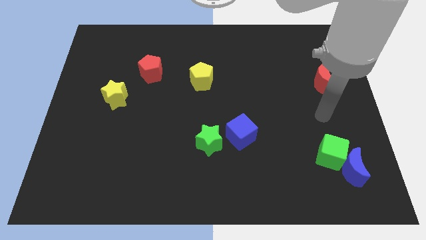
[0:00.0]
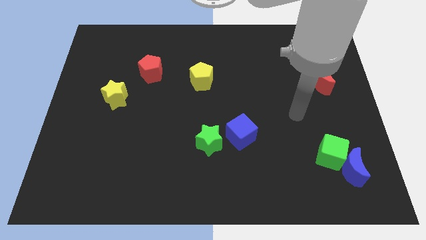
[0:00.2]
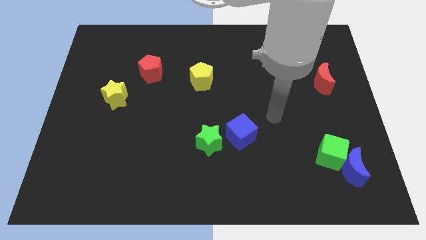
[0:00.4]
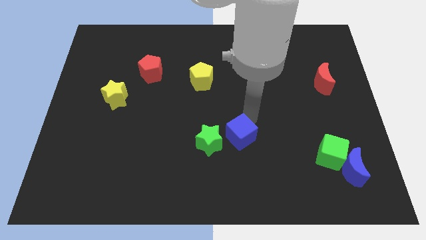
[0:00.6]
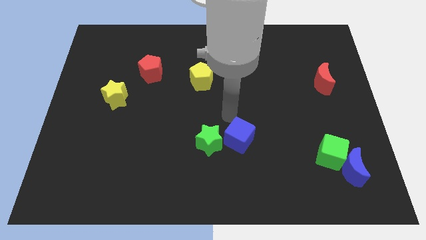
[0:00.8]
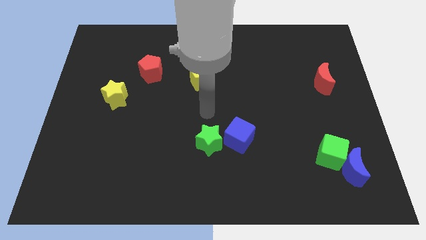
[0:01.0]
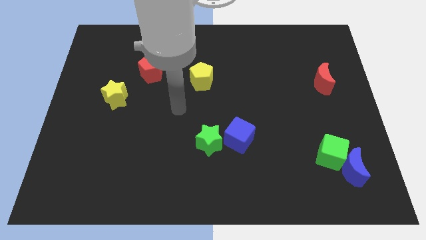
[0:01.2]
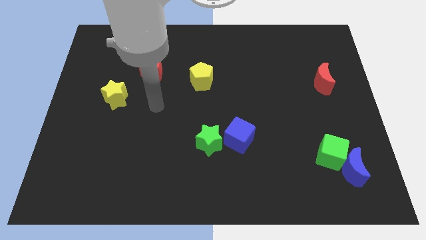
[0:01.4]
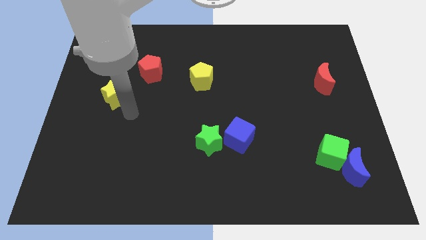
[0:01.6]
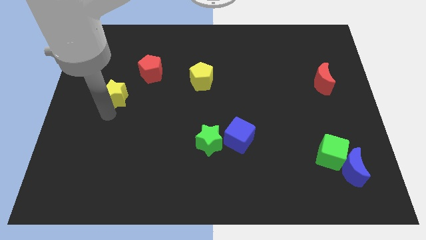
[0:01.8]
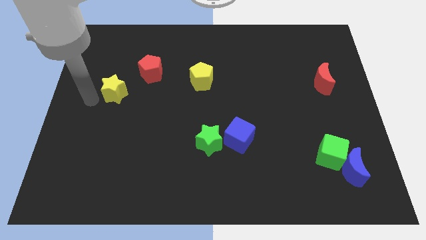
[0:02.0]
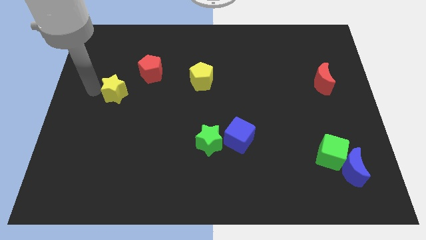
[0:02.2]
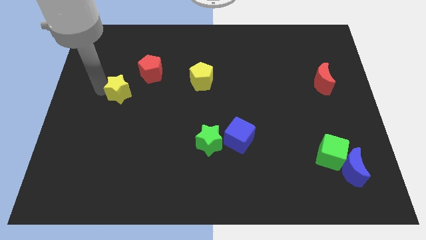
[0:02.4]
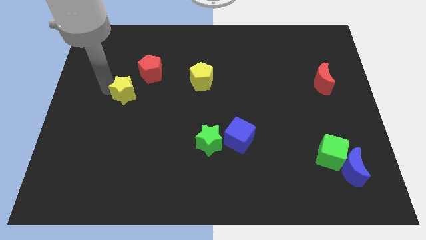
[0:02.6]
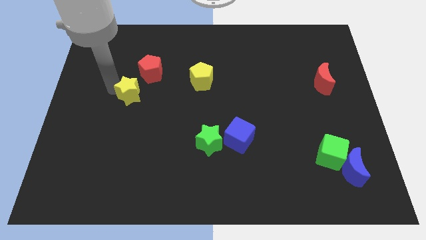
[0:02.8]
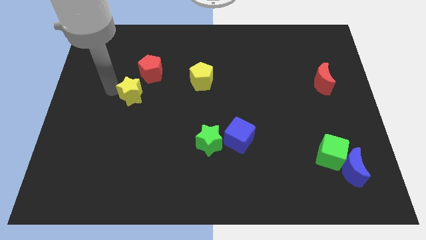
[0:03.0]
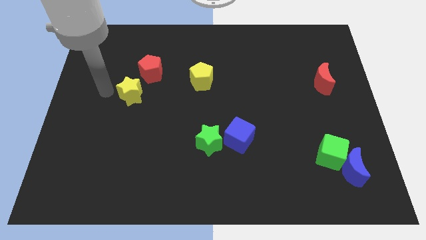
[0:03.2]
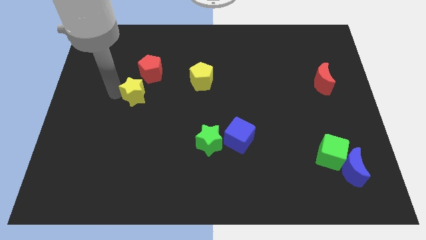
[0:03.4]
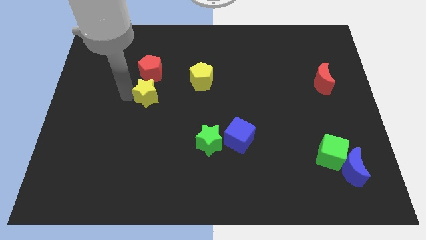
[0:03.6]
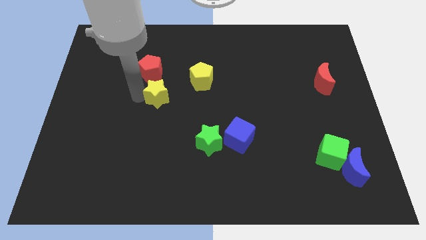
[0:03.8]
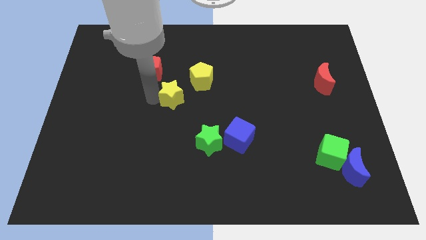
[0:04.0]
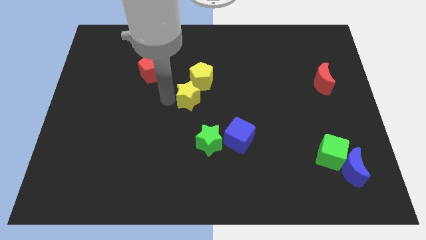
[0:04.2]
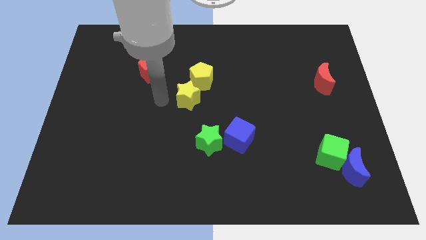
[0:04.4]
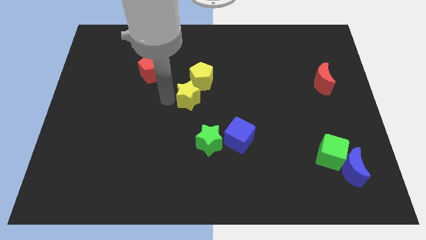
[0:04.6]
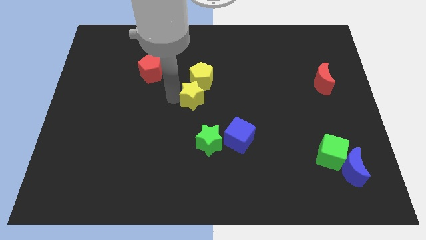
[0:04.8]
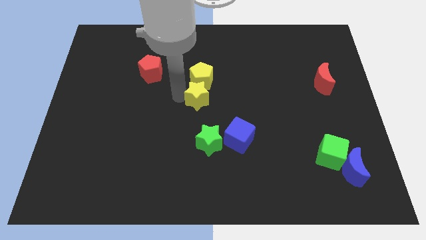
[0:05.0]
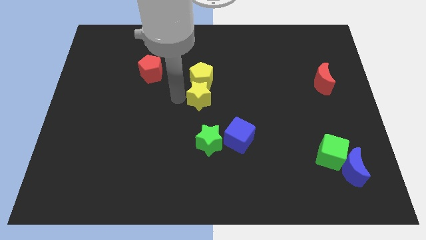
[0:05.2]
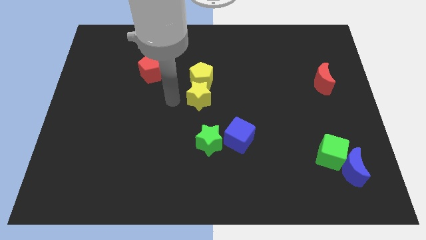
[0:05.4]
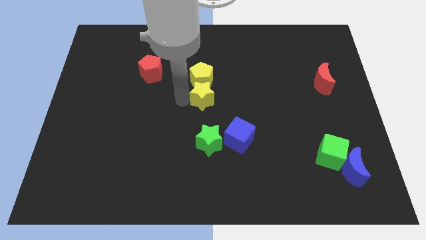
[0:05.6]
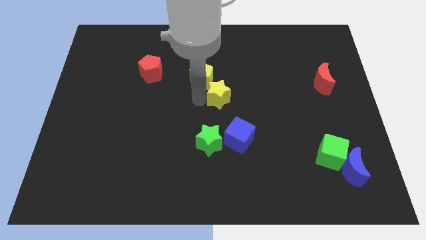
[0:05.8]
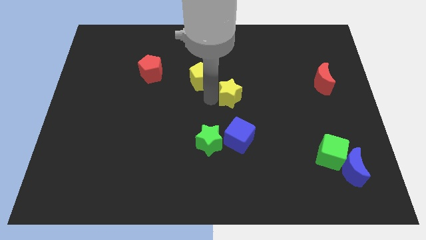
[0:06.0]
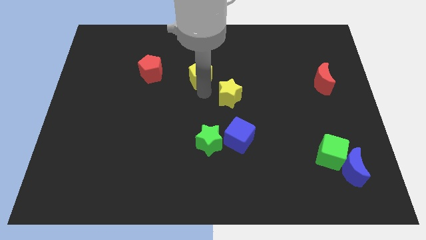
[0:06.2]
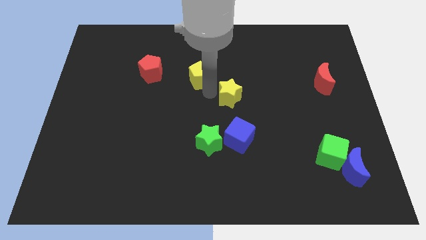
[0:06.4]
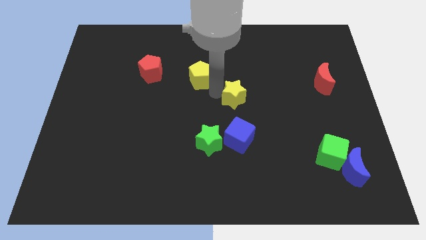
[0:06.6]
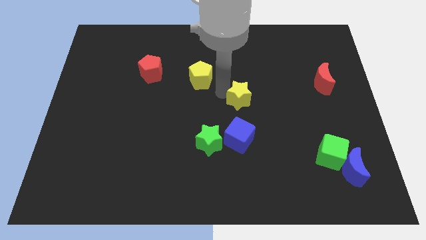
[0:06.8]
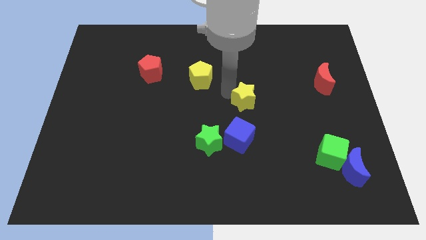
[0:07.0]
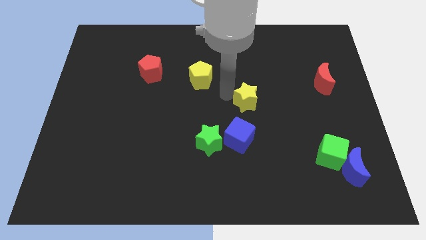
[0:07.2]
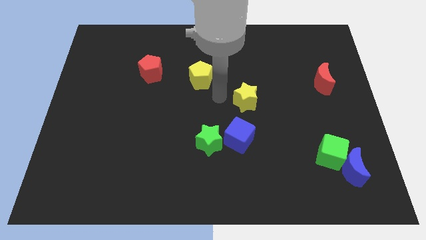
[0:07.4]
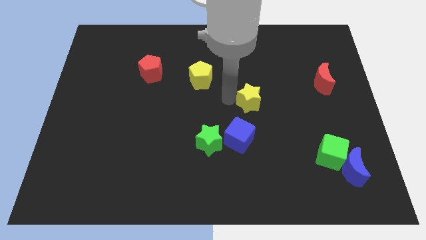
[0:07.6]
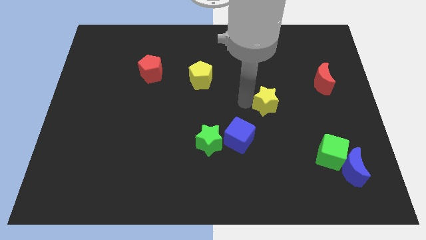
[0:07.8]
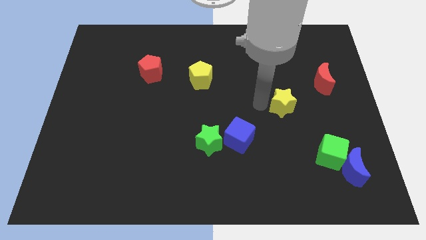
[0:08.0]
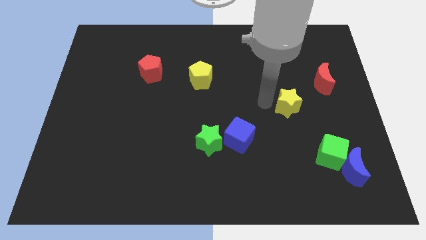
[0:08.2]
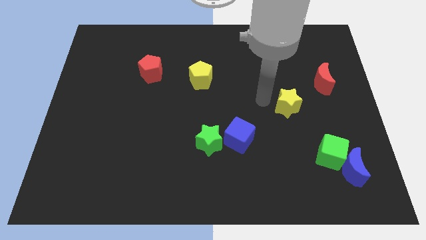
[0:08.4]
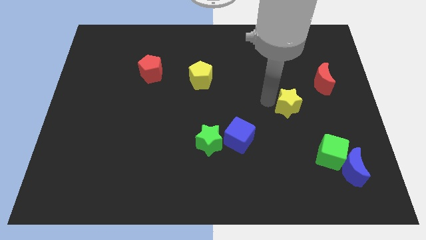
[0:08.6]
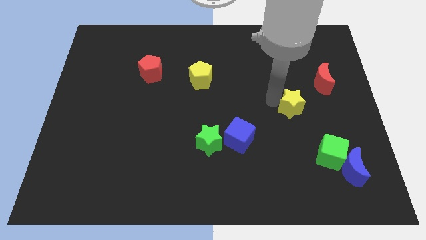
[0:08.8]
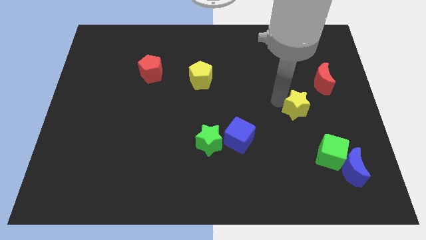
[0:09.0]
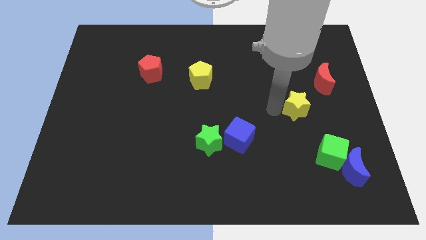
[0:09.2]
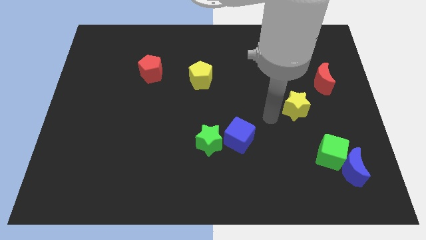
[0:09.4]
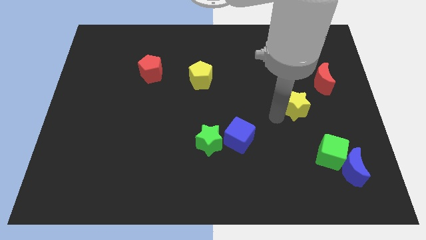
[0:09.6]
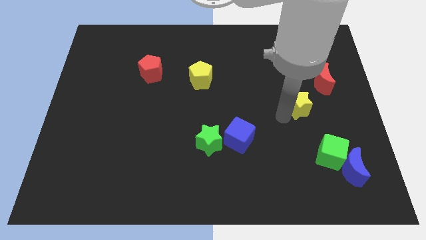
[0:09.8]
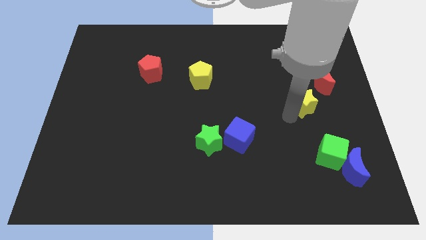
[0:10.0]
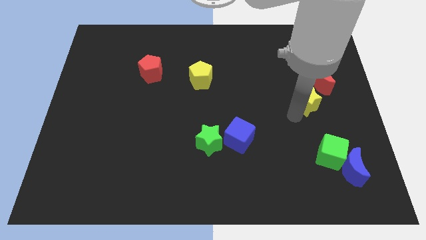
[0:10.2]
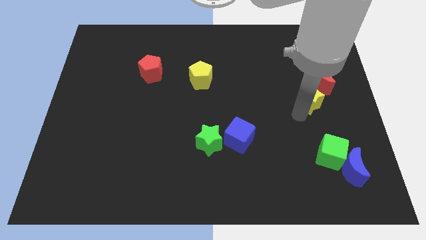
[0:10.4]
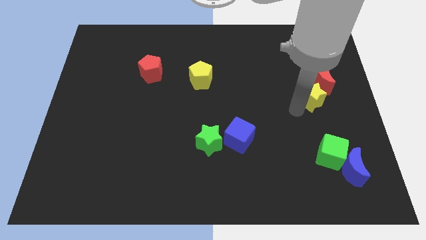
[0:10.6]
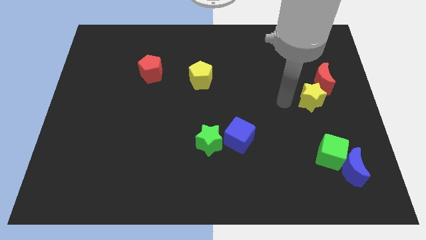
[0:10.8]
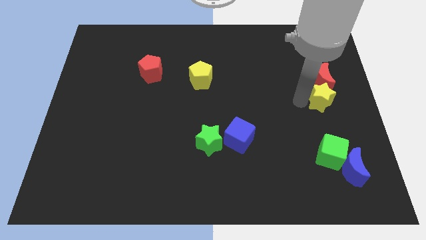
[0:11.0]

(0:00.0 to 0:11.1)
push the yellow star to the right side of the board

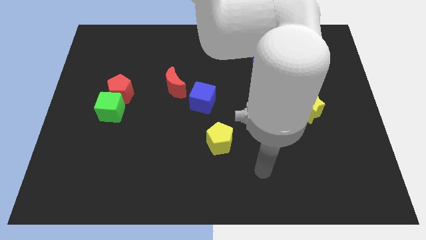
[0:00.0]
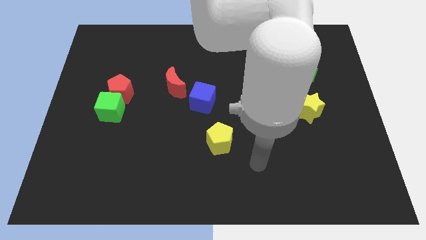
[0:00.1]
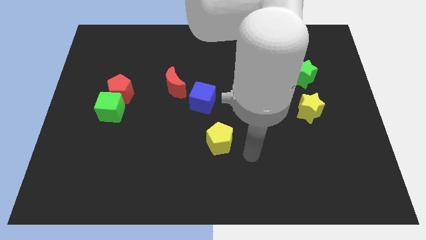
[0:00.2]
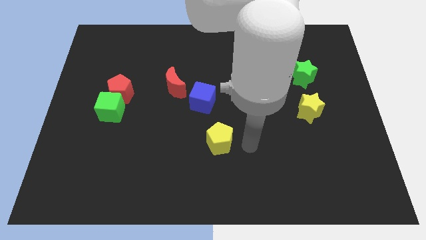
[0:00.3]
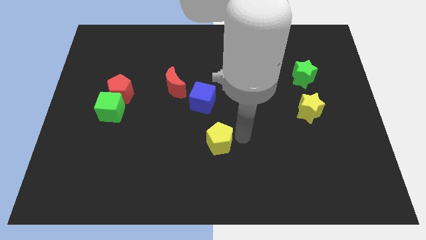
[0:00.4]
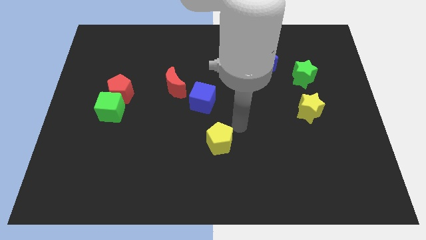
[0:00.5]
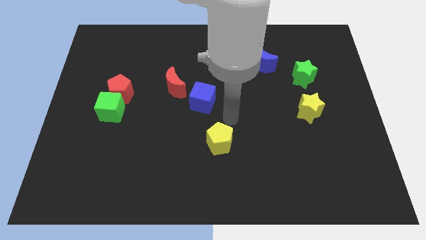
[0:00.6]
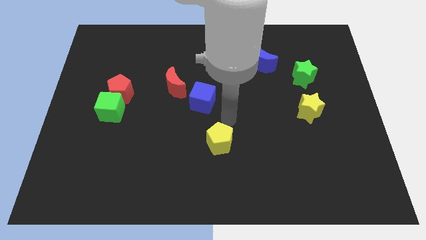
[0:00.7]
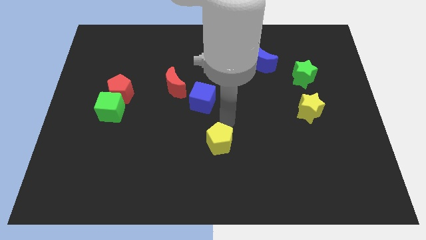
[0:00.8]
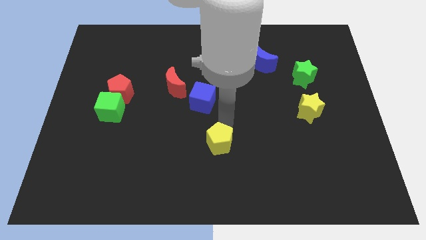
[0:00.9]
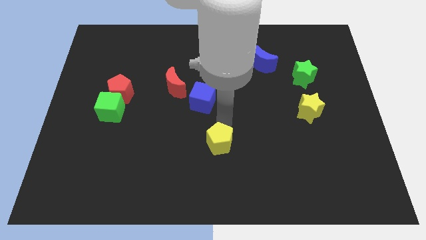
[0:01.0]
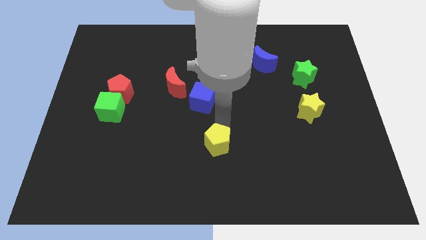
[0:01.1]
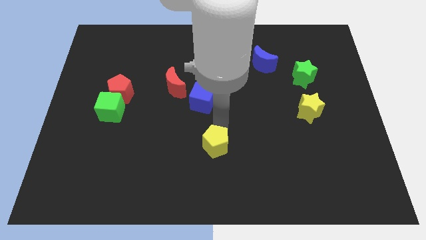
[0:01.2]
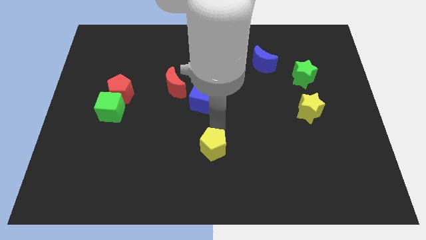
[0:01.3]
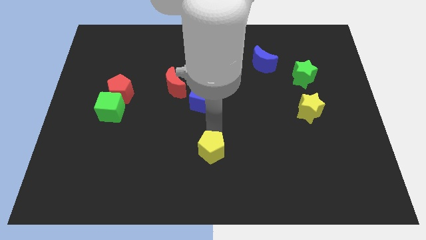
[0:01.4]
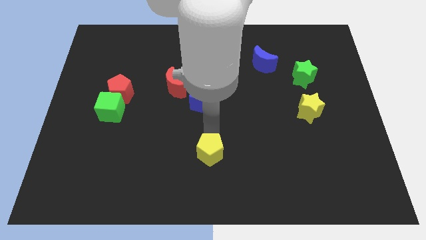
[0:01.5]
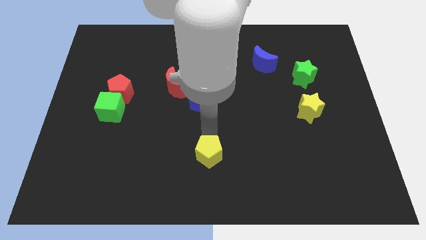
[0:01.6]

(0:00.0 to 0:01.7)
push the yellow pentagon to the bottom side
